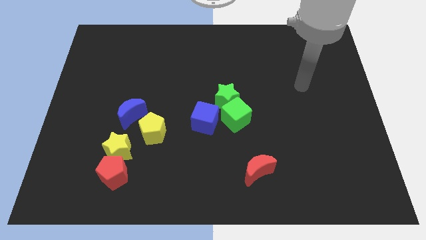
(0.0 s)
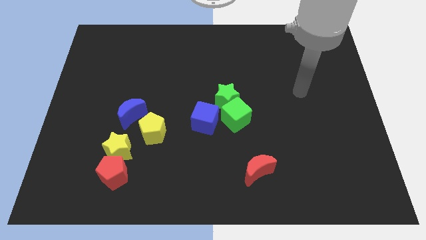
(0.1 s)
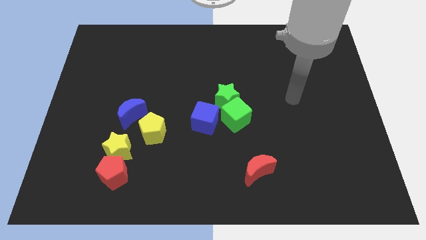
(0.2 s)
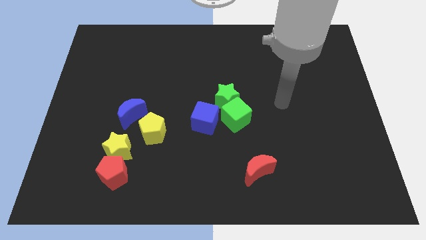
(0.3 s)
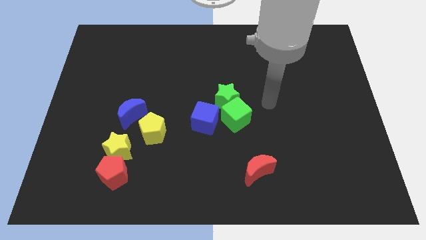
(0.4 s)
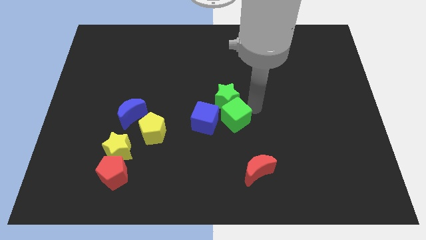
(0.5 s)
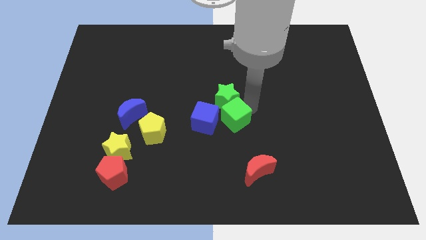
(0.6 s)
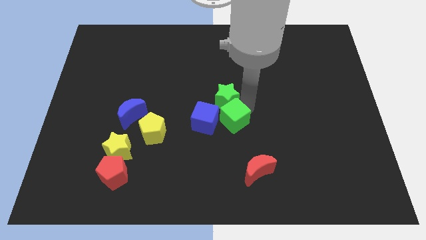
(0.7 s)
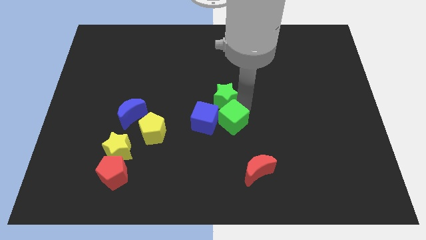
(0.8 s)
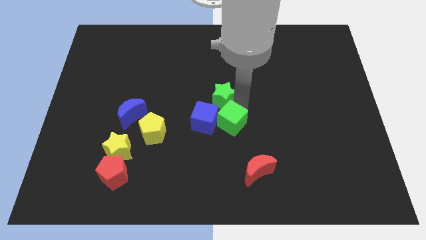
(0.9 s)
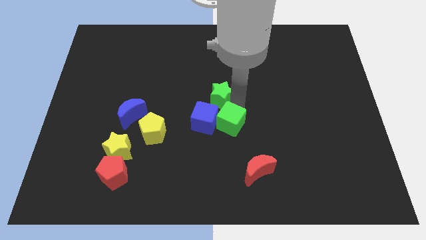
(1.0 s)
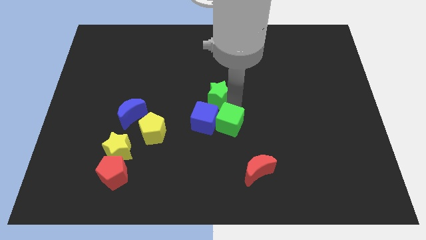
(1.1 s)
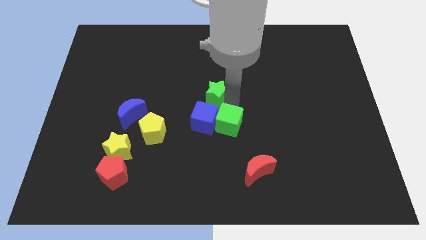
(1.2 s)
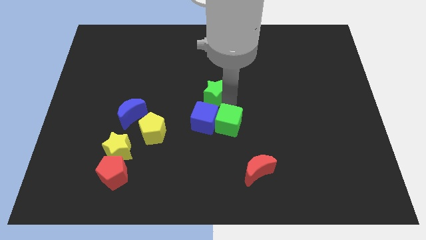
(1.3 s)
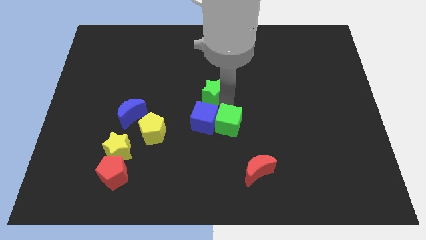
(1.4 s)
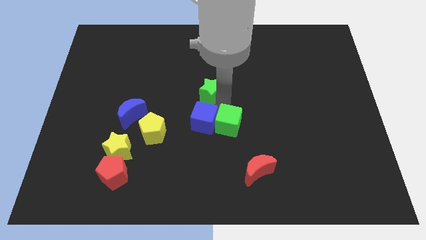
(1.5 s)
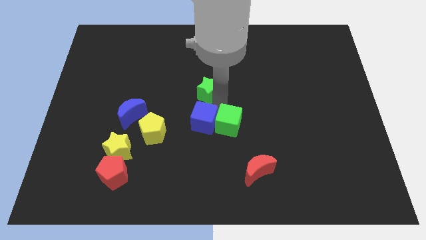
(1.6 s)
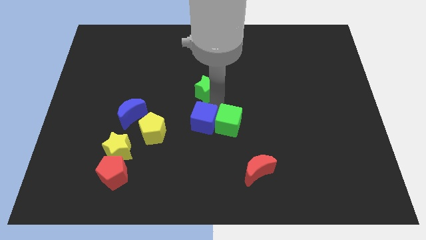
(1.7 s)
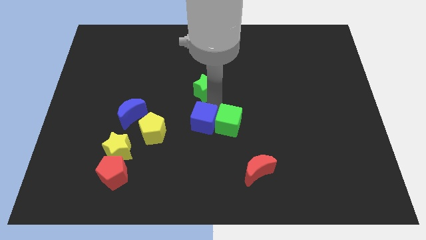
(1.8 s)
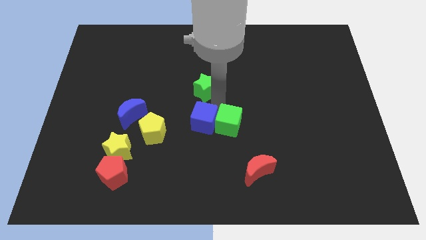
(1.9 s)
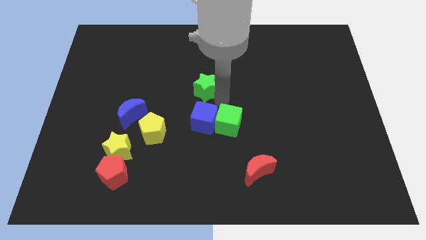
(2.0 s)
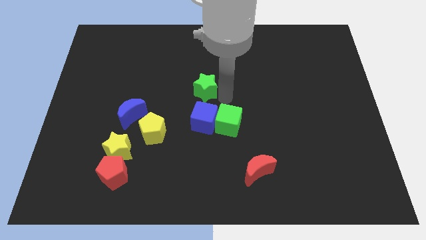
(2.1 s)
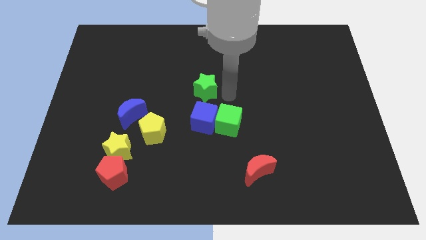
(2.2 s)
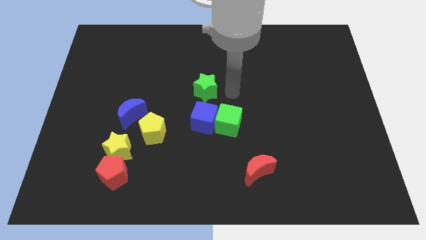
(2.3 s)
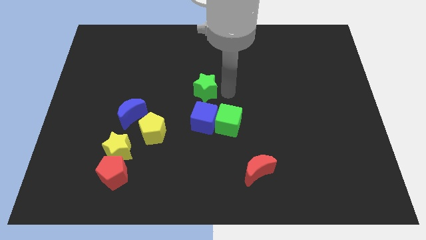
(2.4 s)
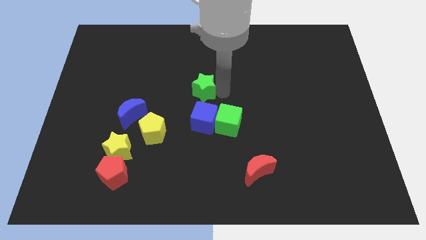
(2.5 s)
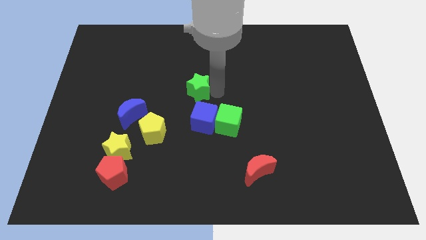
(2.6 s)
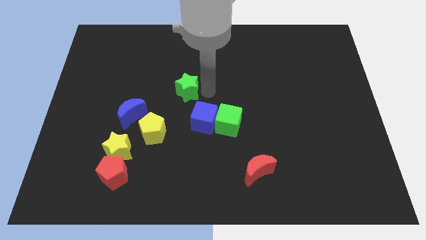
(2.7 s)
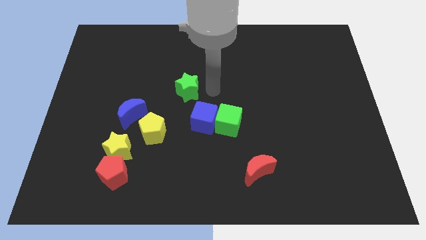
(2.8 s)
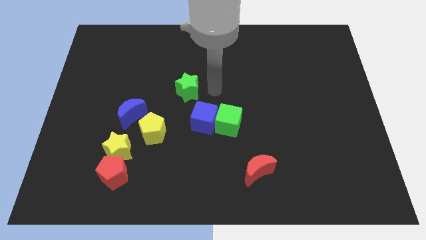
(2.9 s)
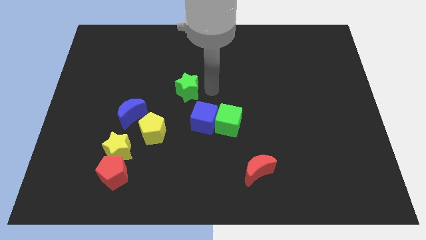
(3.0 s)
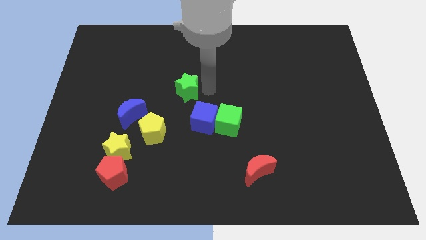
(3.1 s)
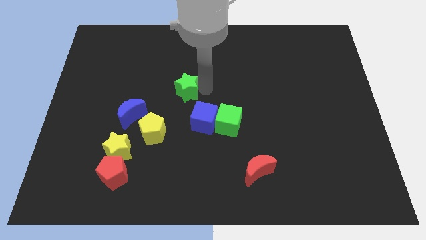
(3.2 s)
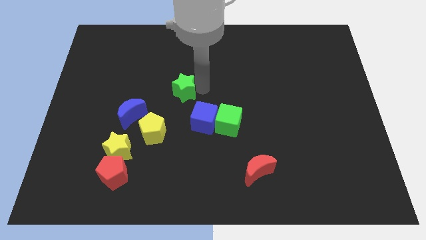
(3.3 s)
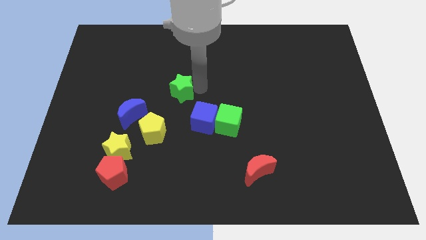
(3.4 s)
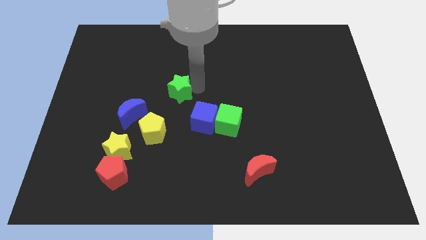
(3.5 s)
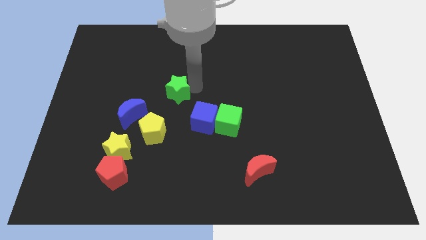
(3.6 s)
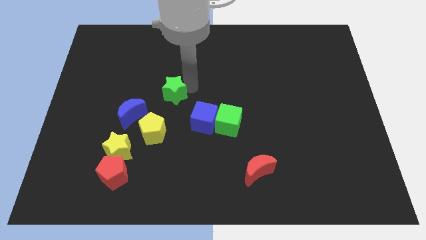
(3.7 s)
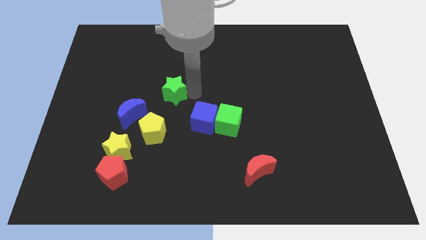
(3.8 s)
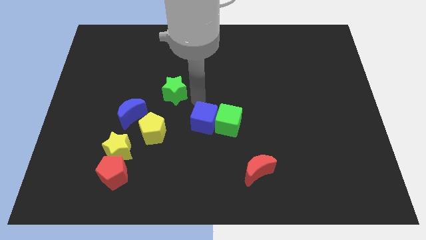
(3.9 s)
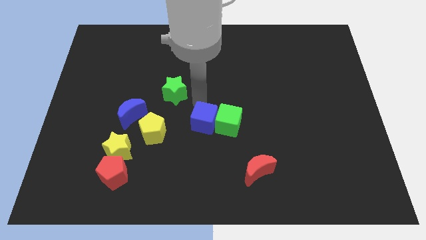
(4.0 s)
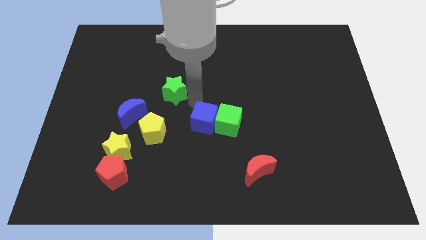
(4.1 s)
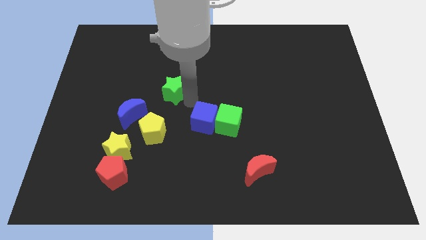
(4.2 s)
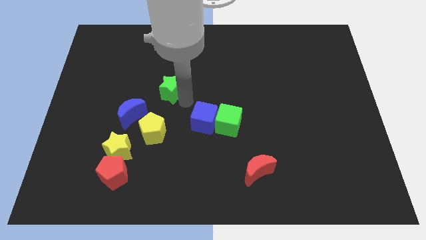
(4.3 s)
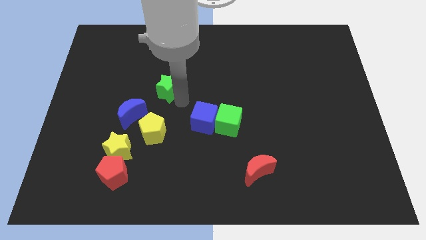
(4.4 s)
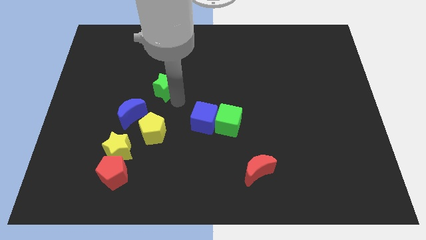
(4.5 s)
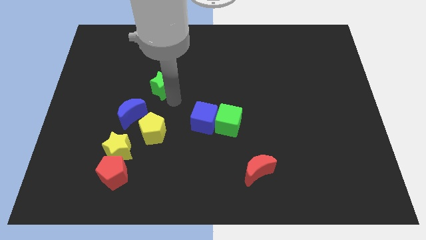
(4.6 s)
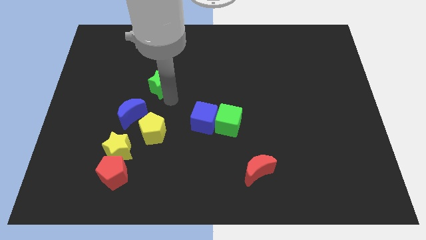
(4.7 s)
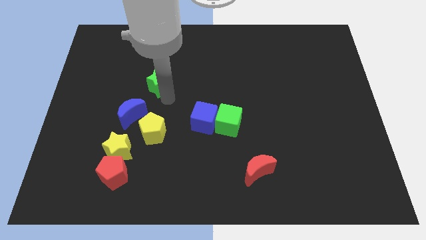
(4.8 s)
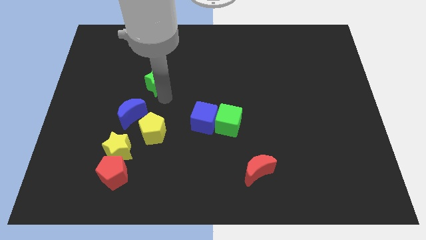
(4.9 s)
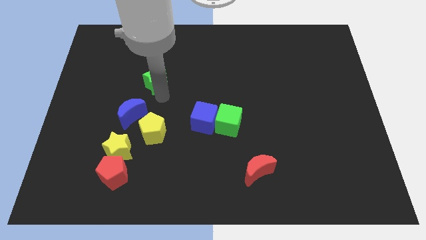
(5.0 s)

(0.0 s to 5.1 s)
push the green star above the blue moon

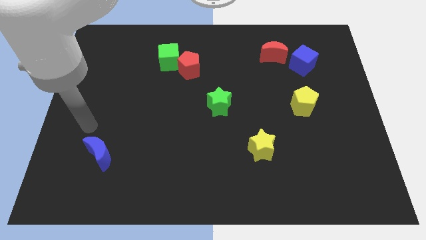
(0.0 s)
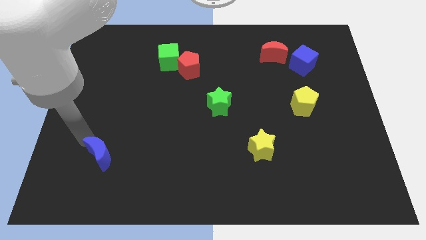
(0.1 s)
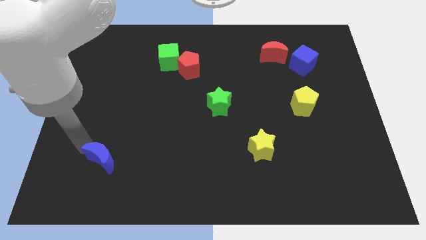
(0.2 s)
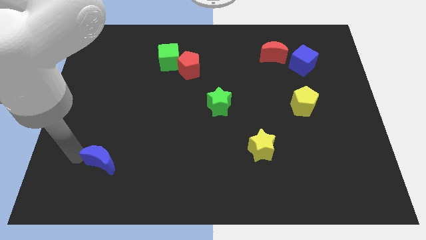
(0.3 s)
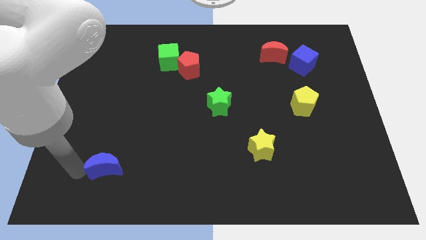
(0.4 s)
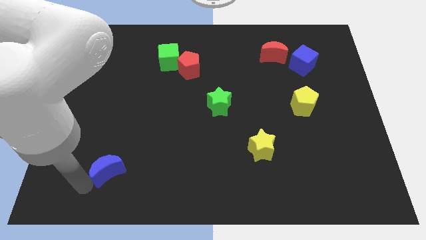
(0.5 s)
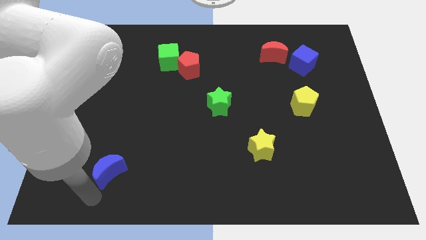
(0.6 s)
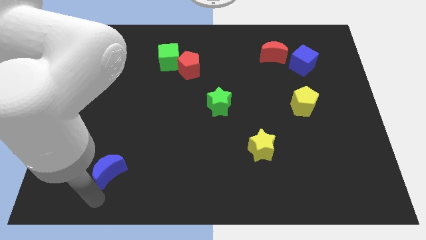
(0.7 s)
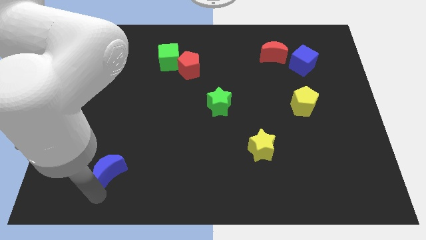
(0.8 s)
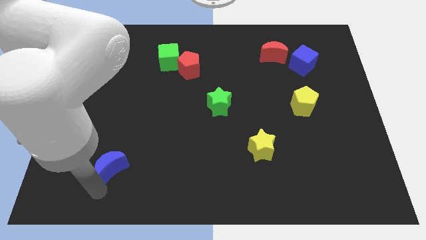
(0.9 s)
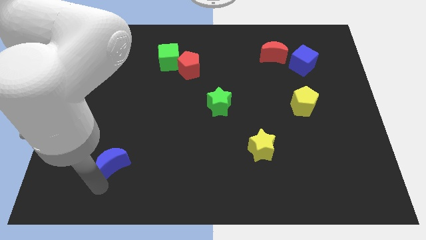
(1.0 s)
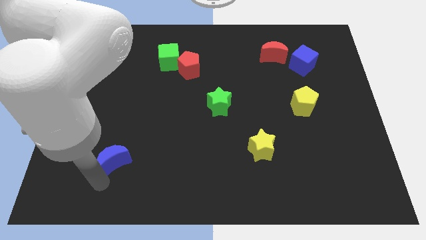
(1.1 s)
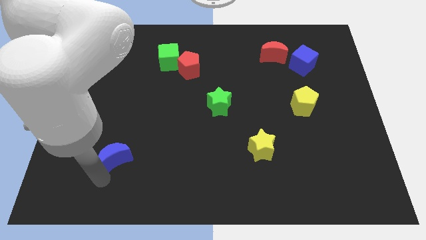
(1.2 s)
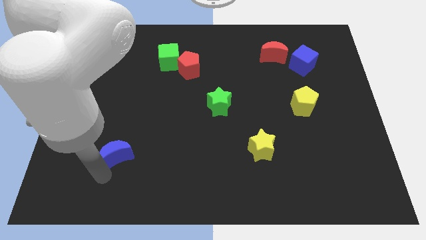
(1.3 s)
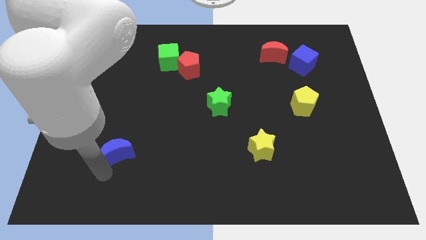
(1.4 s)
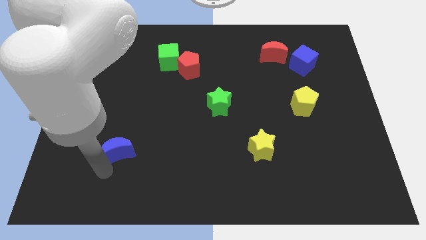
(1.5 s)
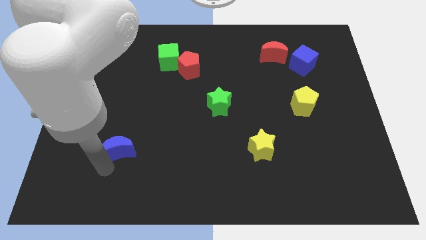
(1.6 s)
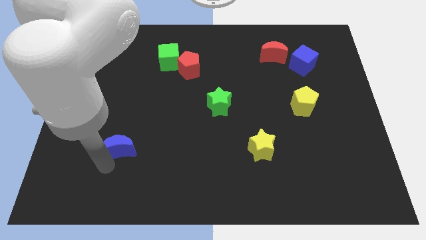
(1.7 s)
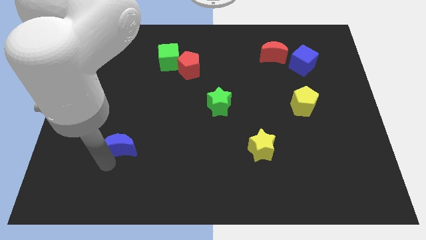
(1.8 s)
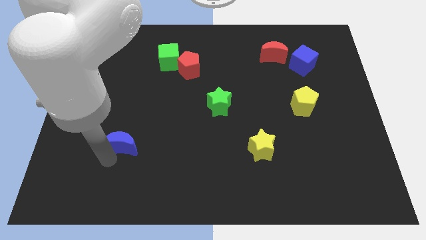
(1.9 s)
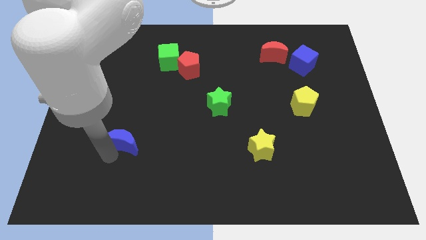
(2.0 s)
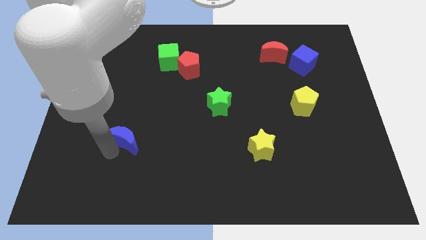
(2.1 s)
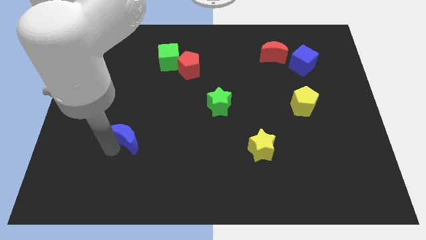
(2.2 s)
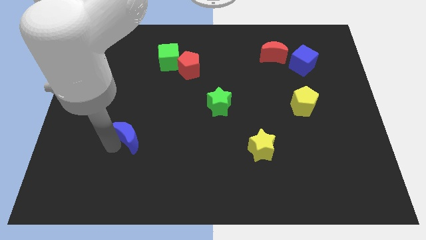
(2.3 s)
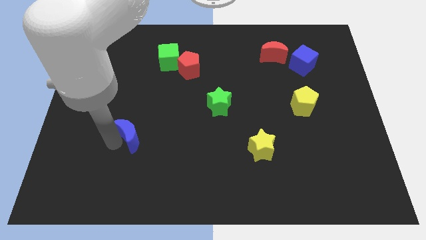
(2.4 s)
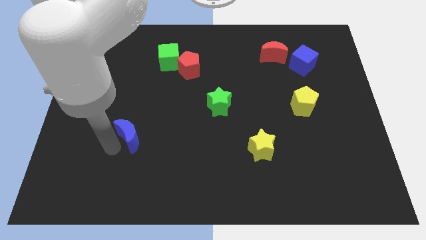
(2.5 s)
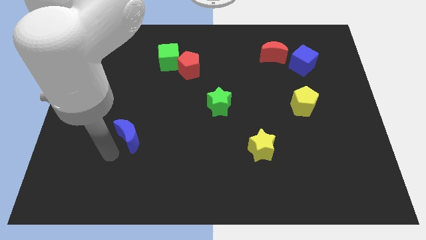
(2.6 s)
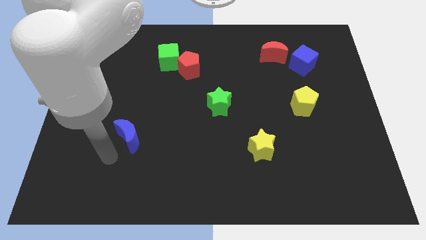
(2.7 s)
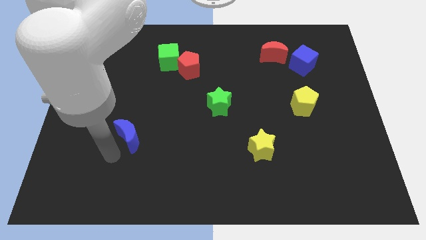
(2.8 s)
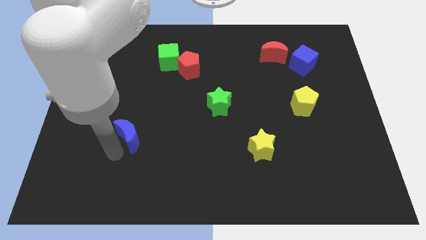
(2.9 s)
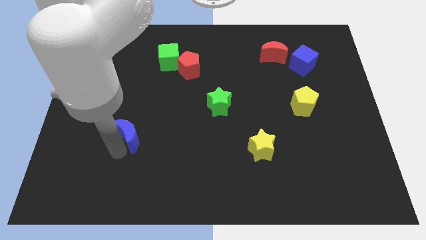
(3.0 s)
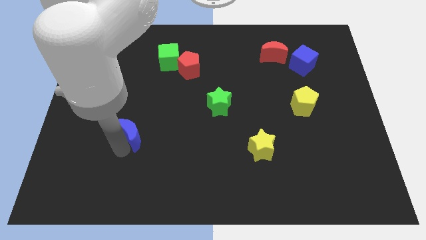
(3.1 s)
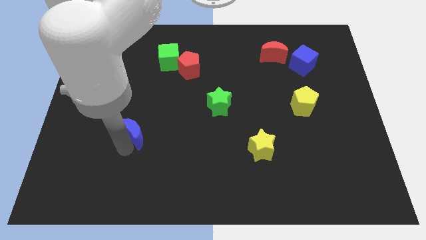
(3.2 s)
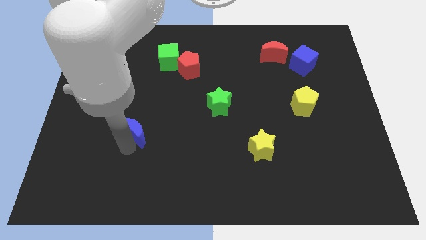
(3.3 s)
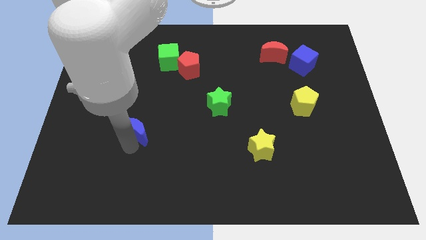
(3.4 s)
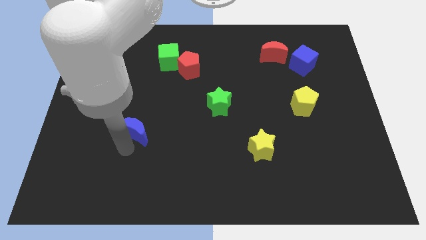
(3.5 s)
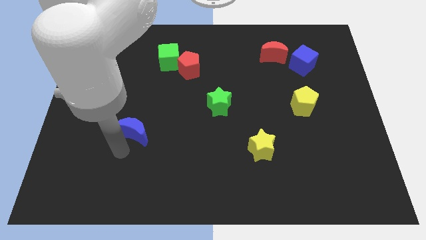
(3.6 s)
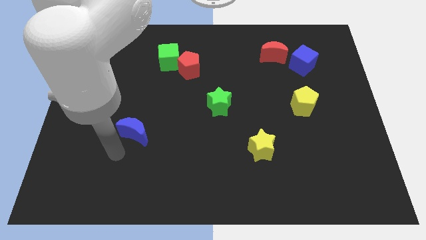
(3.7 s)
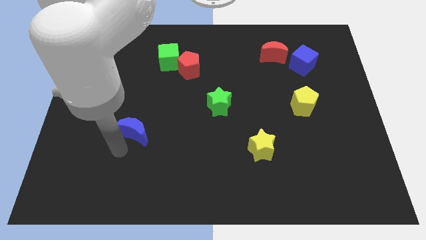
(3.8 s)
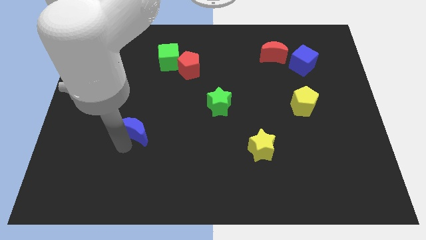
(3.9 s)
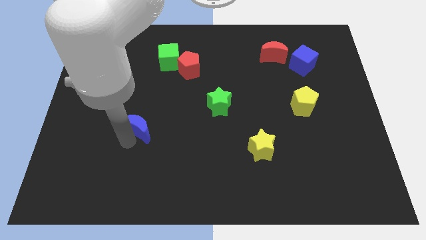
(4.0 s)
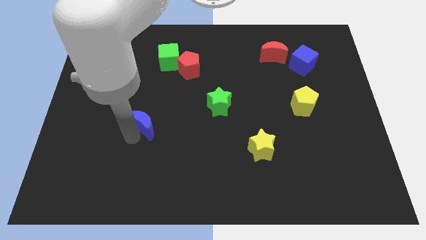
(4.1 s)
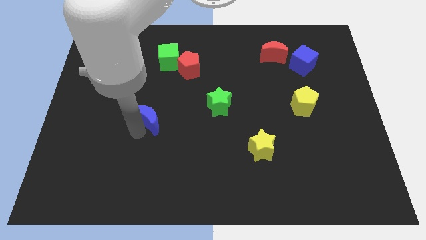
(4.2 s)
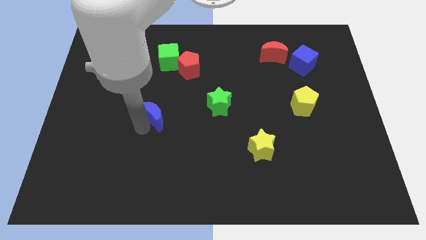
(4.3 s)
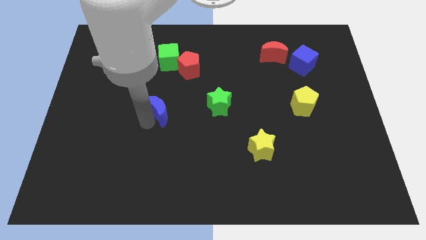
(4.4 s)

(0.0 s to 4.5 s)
put the blue moon just left of the green star
